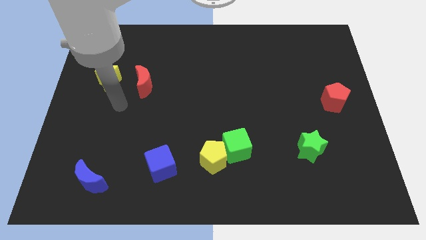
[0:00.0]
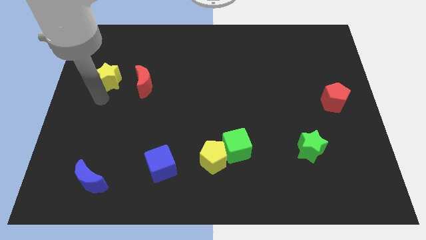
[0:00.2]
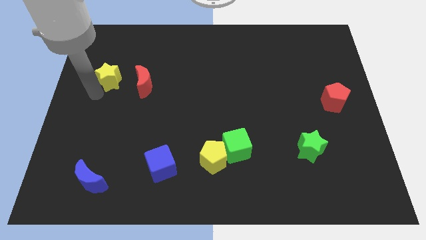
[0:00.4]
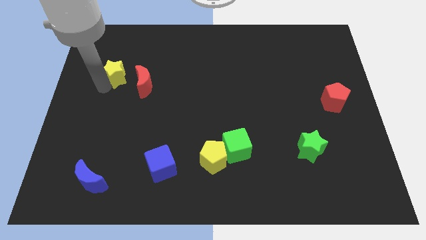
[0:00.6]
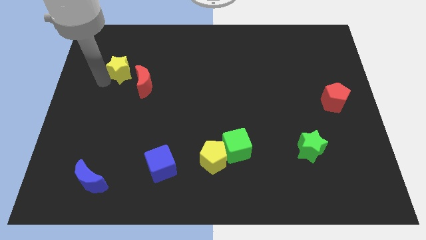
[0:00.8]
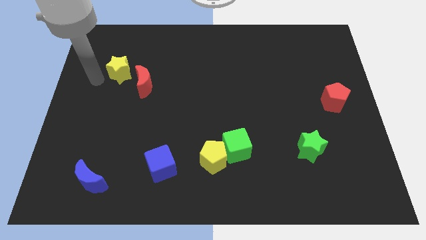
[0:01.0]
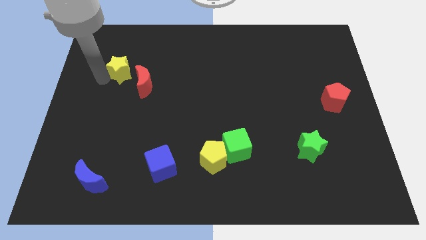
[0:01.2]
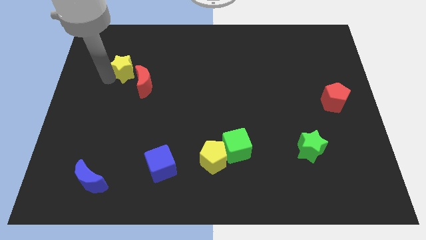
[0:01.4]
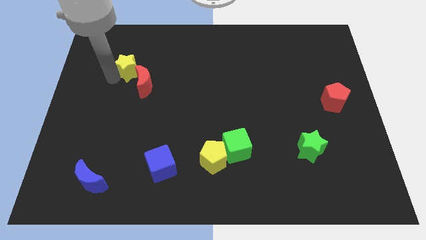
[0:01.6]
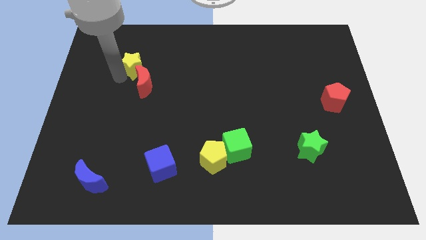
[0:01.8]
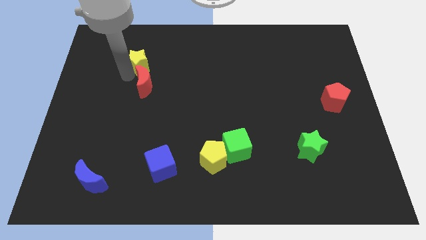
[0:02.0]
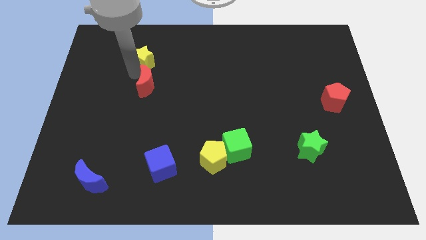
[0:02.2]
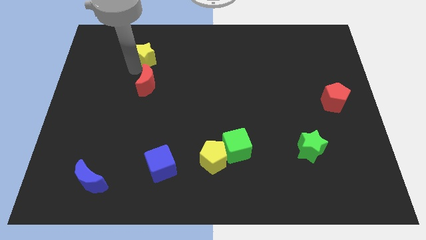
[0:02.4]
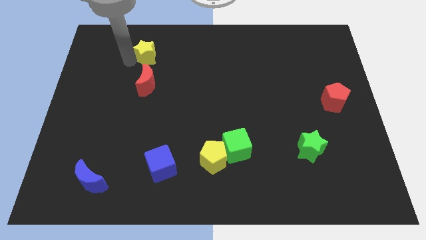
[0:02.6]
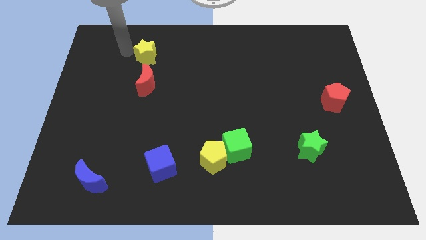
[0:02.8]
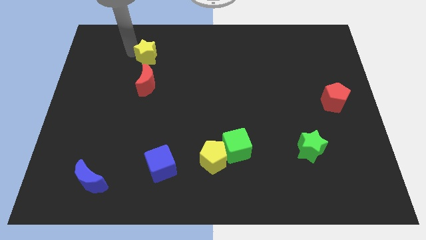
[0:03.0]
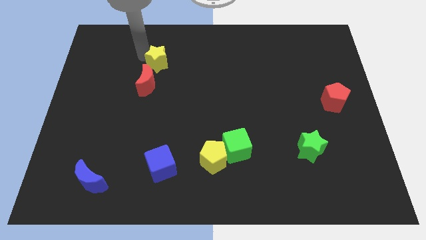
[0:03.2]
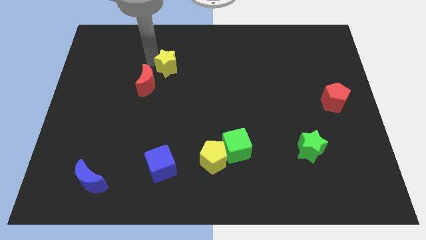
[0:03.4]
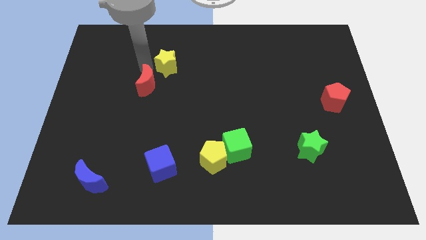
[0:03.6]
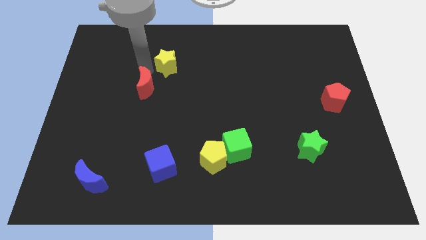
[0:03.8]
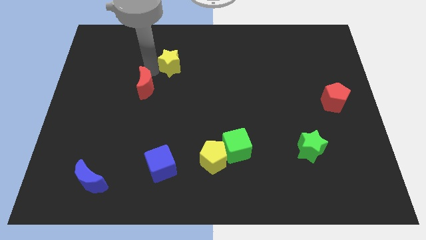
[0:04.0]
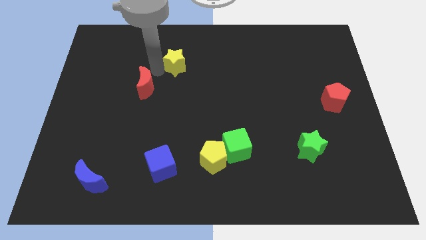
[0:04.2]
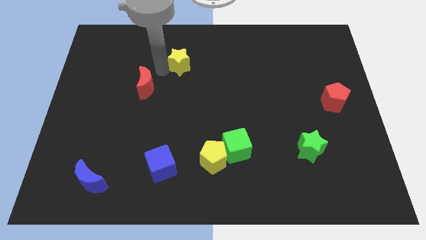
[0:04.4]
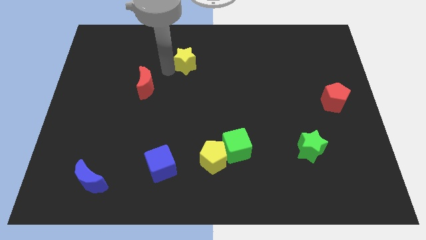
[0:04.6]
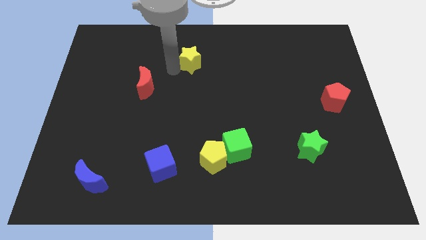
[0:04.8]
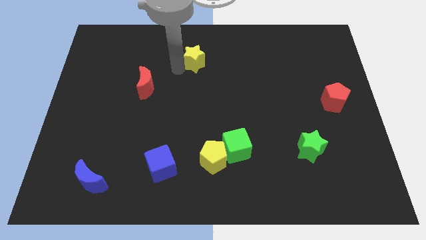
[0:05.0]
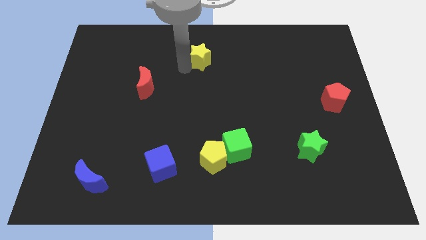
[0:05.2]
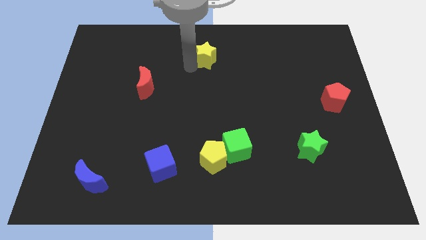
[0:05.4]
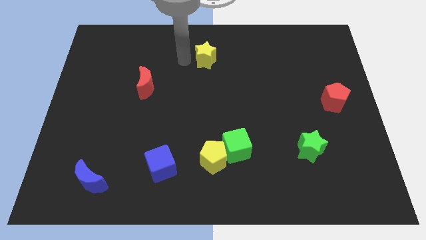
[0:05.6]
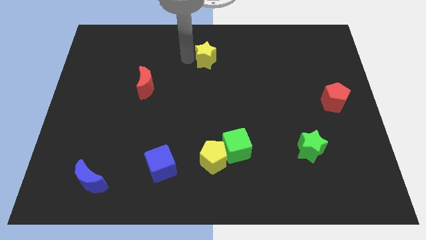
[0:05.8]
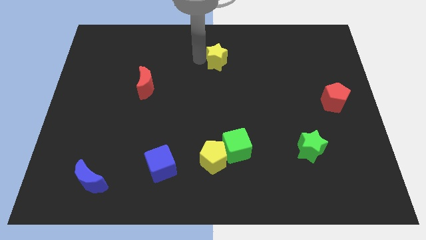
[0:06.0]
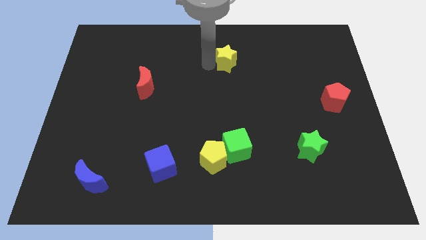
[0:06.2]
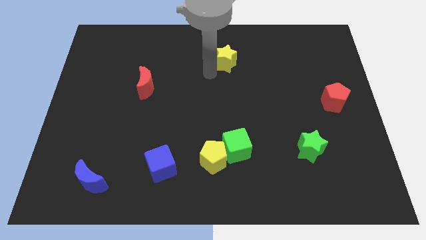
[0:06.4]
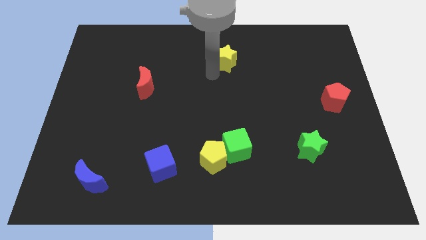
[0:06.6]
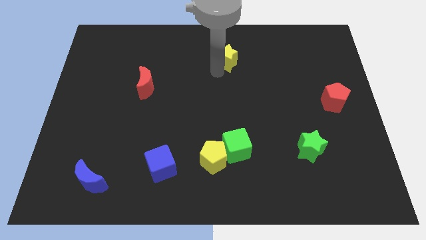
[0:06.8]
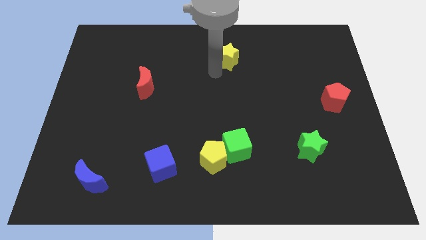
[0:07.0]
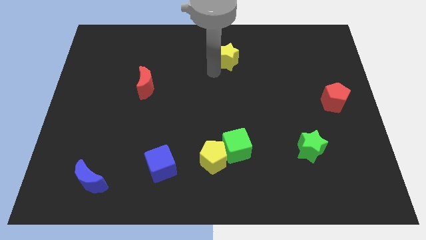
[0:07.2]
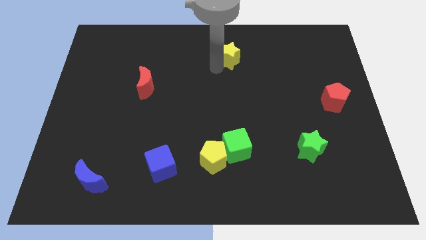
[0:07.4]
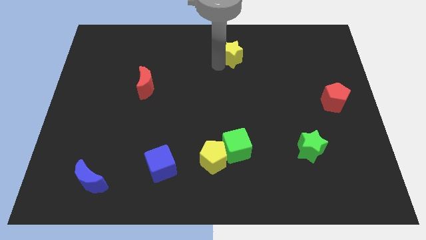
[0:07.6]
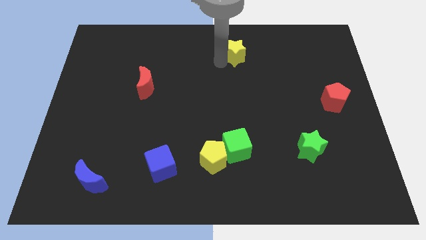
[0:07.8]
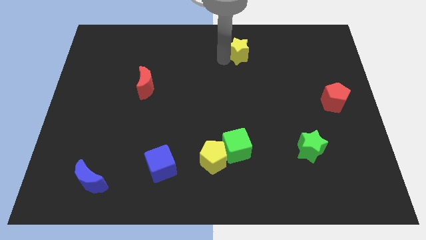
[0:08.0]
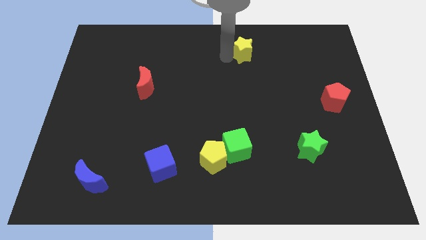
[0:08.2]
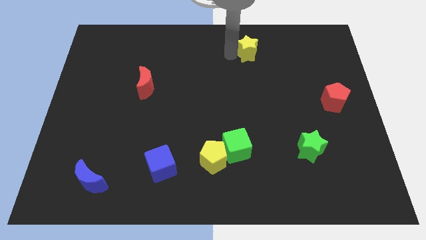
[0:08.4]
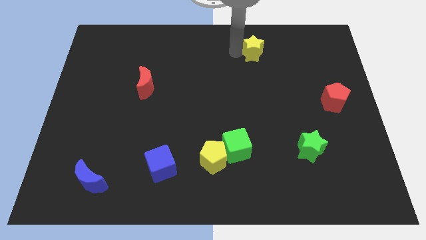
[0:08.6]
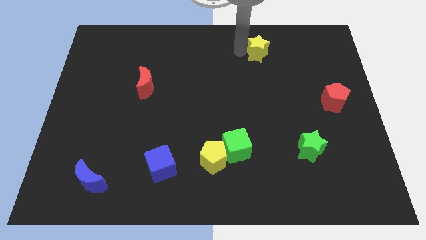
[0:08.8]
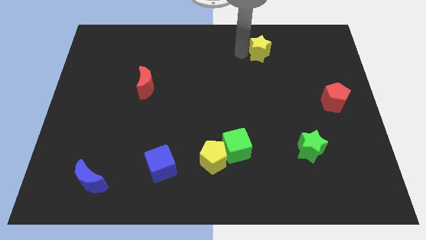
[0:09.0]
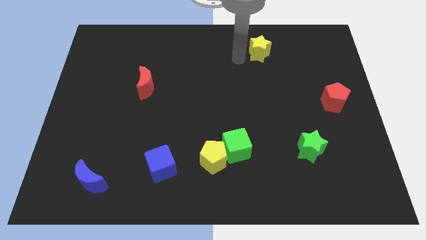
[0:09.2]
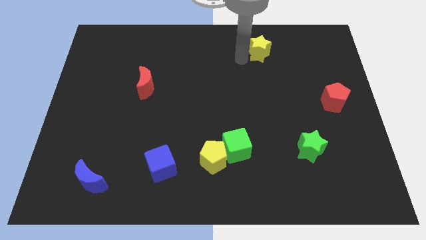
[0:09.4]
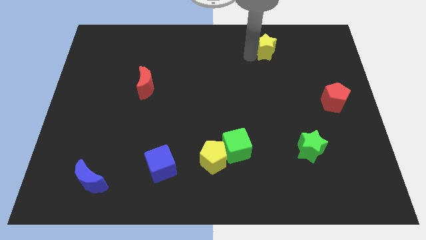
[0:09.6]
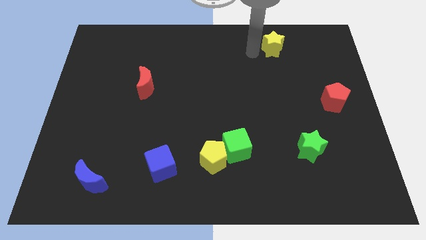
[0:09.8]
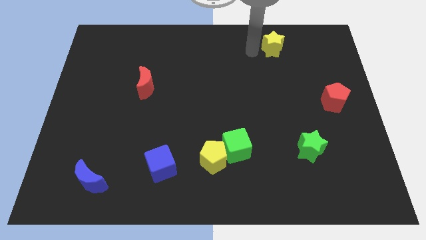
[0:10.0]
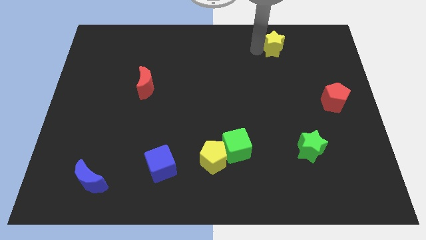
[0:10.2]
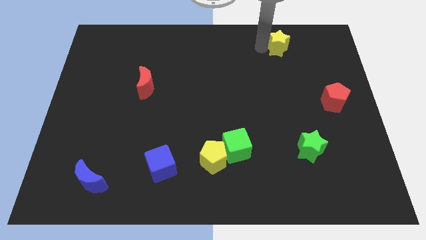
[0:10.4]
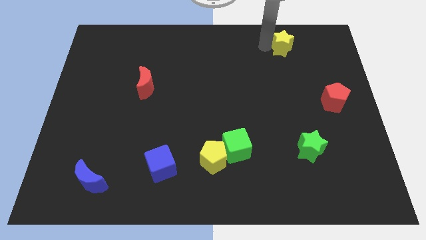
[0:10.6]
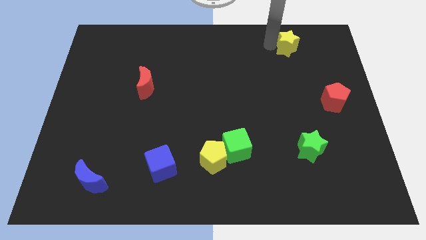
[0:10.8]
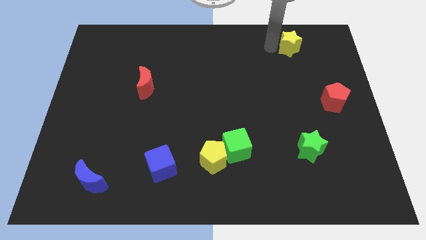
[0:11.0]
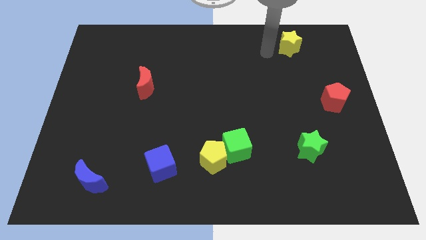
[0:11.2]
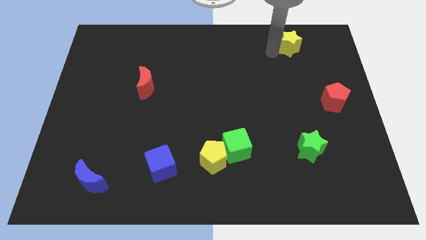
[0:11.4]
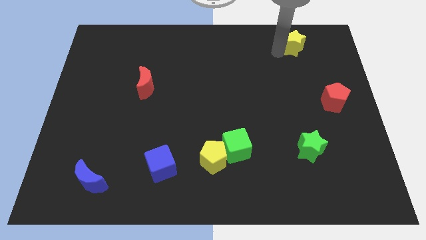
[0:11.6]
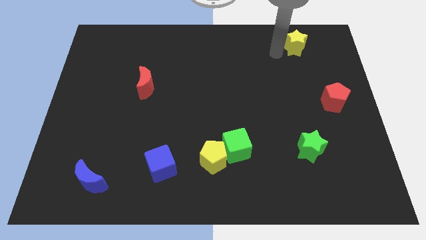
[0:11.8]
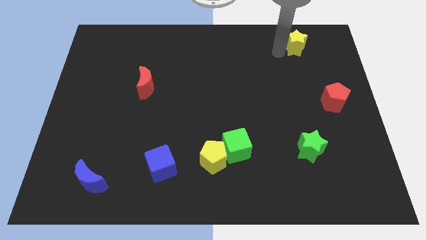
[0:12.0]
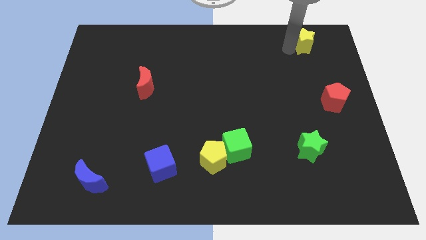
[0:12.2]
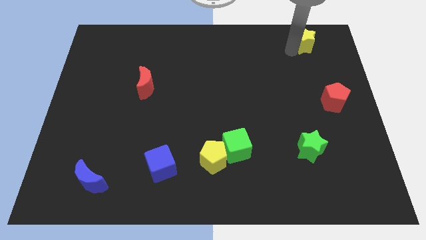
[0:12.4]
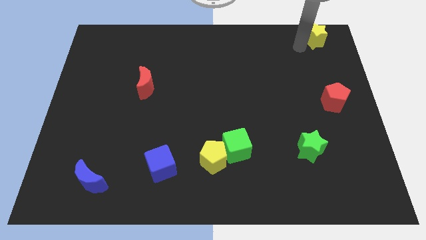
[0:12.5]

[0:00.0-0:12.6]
move the yellow star to the top right of the board

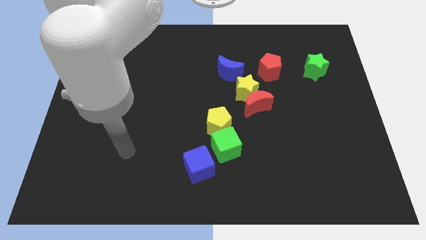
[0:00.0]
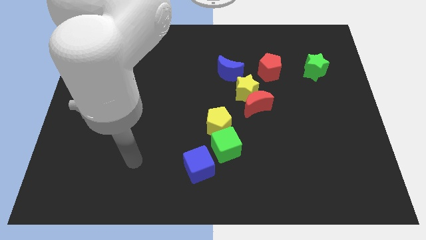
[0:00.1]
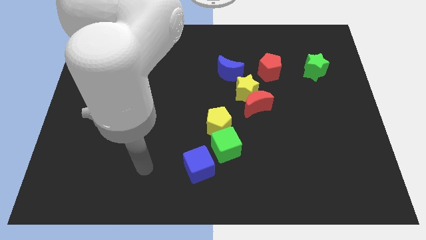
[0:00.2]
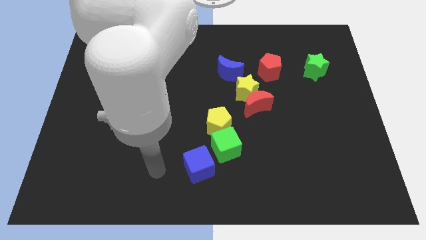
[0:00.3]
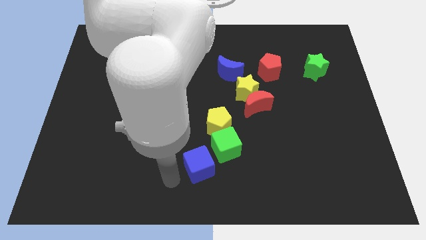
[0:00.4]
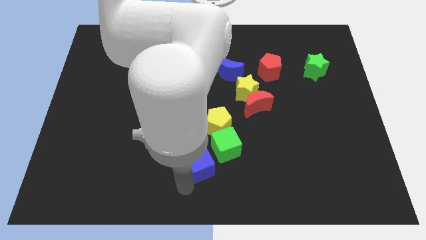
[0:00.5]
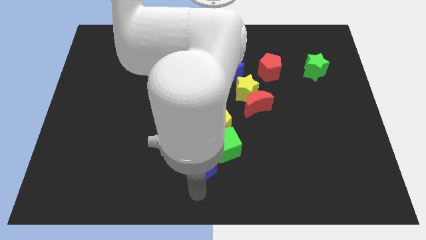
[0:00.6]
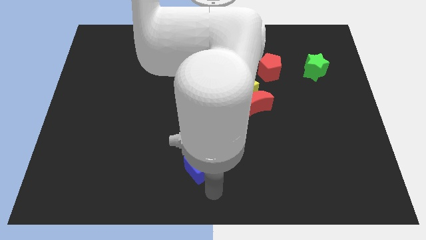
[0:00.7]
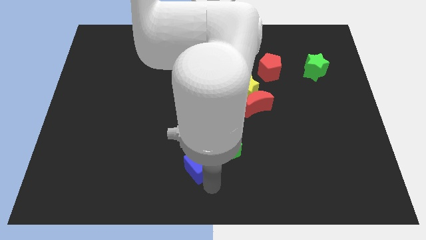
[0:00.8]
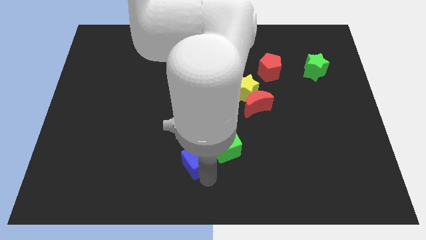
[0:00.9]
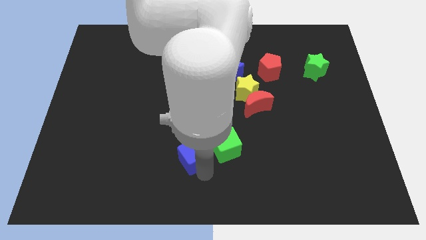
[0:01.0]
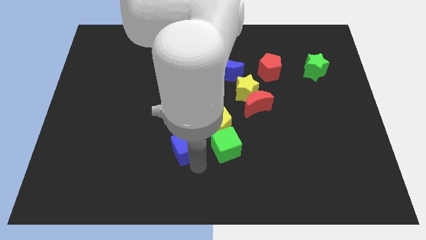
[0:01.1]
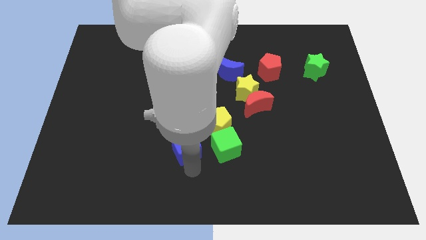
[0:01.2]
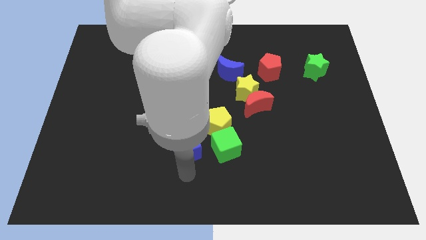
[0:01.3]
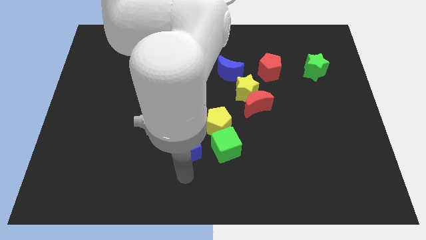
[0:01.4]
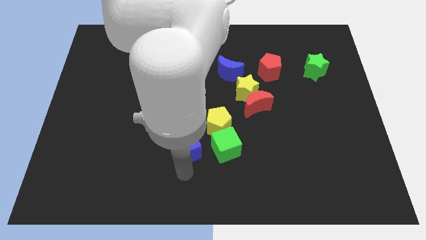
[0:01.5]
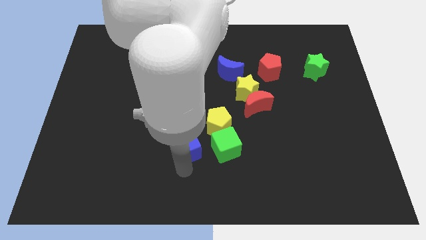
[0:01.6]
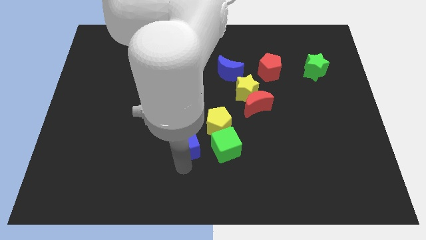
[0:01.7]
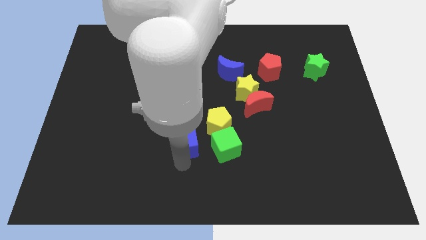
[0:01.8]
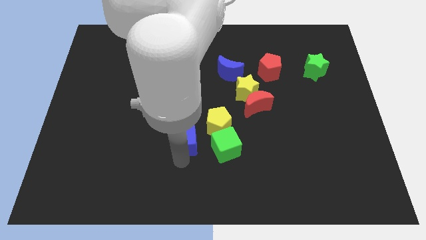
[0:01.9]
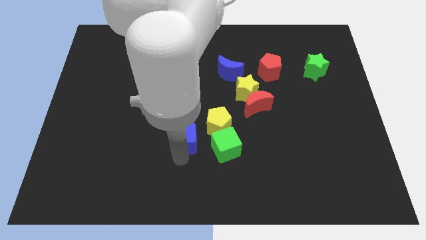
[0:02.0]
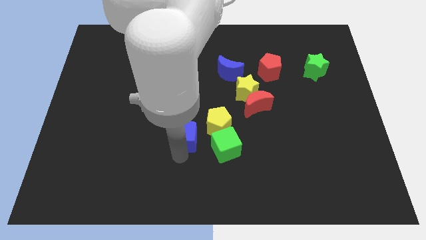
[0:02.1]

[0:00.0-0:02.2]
push the blue cube to the center
